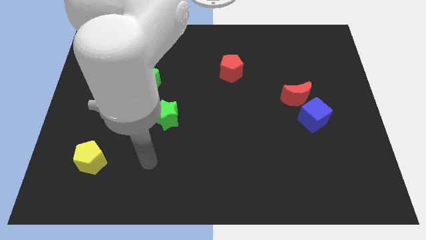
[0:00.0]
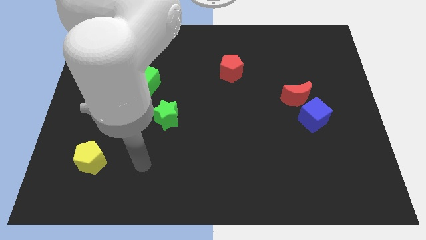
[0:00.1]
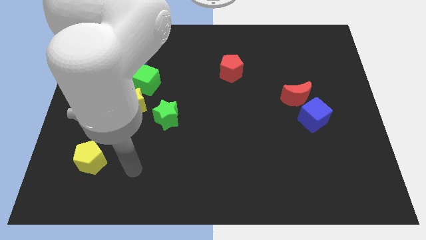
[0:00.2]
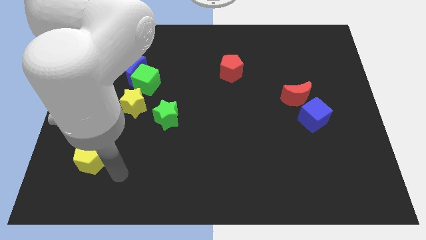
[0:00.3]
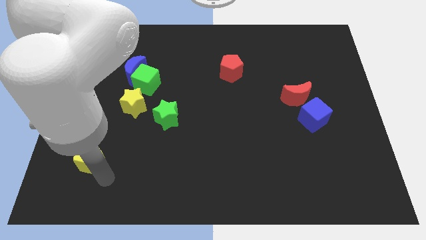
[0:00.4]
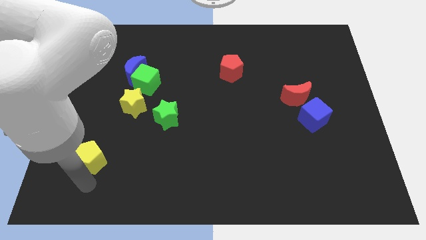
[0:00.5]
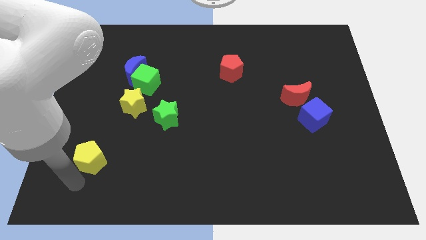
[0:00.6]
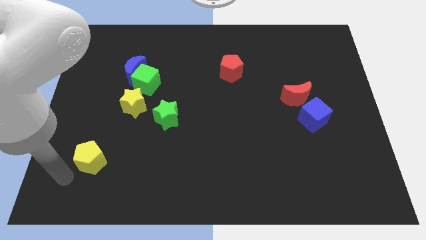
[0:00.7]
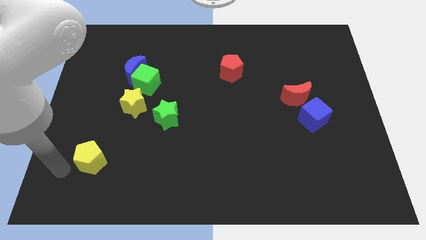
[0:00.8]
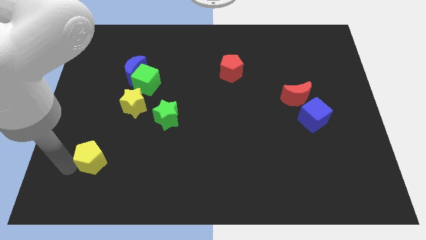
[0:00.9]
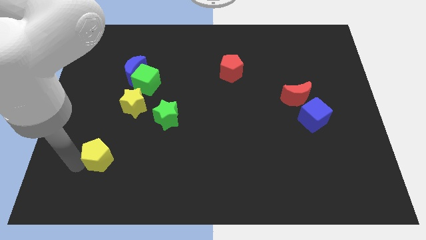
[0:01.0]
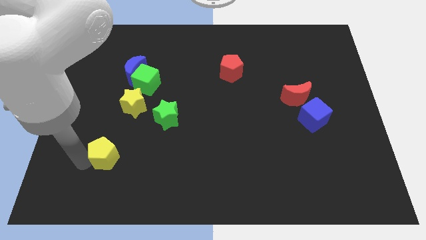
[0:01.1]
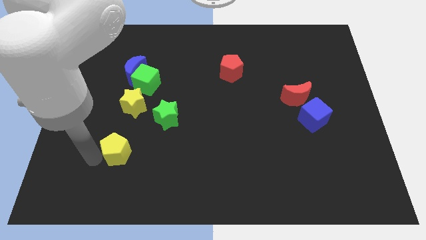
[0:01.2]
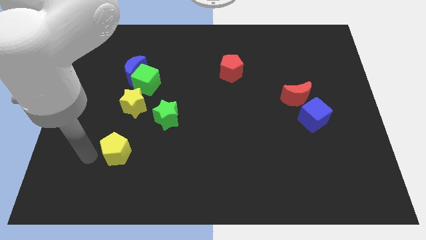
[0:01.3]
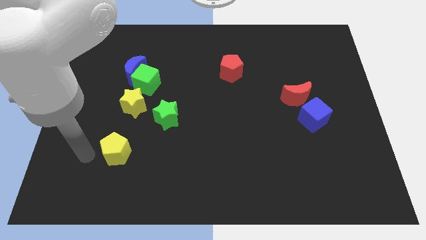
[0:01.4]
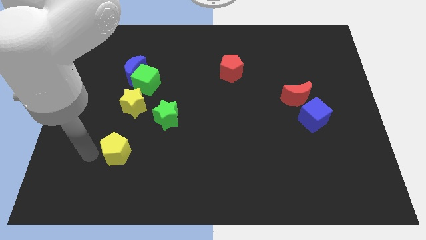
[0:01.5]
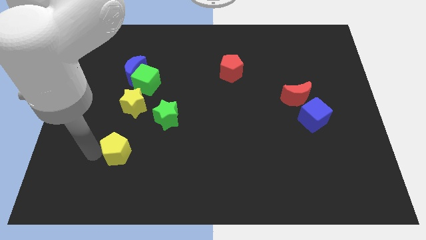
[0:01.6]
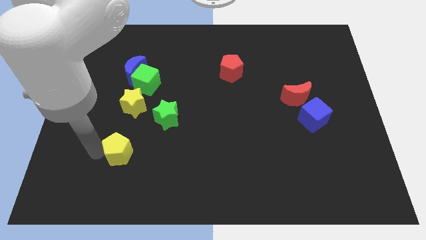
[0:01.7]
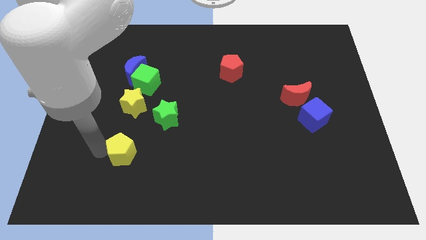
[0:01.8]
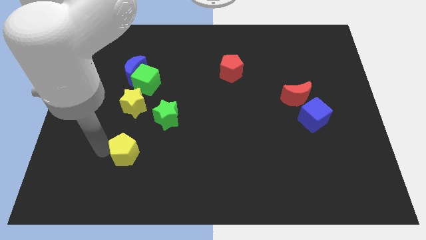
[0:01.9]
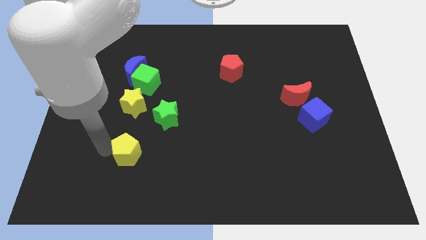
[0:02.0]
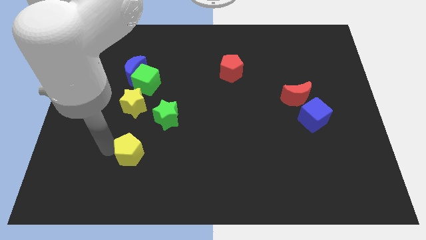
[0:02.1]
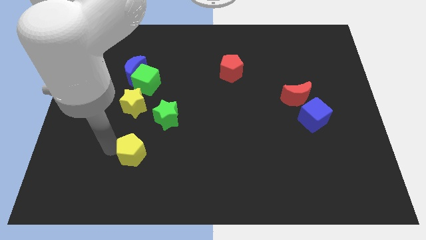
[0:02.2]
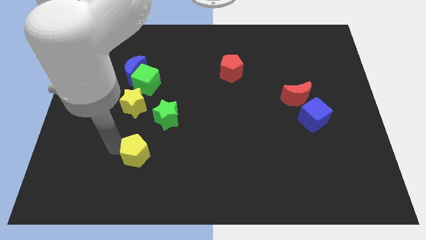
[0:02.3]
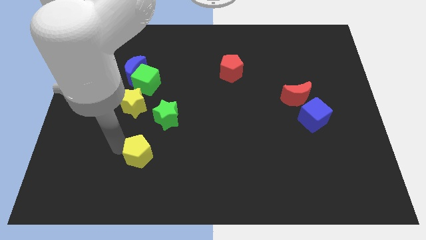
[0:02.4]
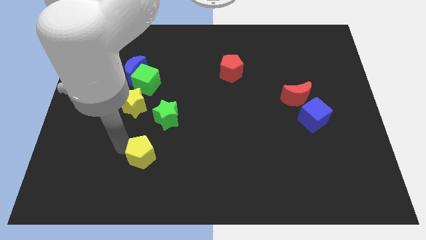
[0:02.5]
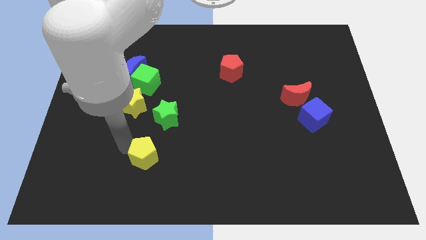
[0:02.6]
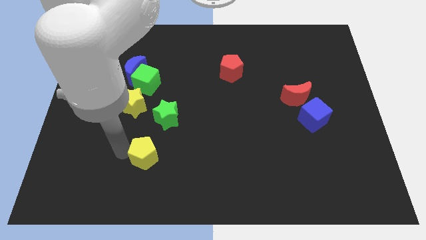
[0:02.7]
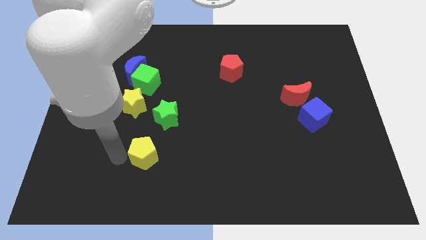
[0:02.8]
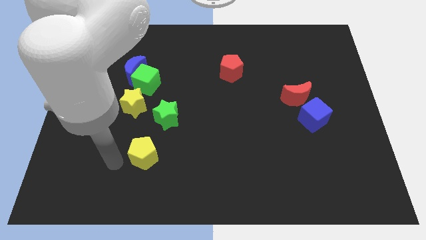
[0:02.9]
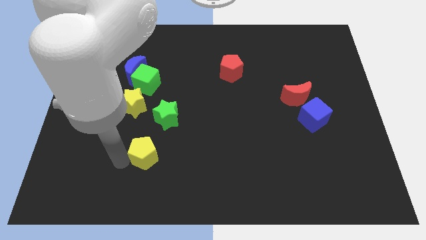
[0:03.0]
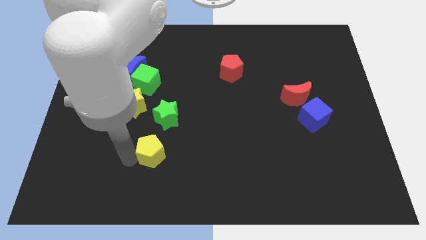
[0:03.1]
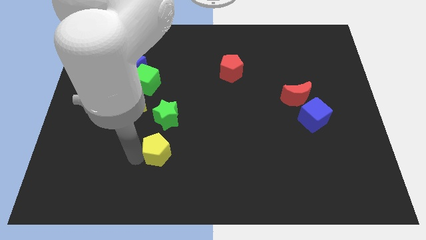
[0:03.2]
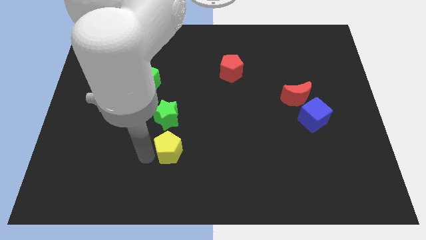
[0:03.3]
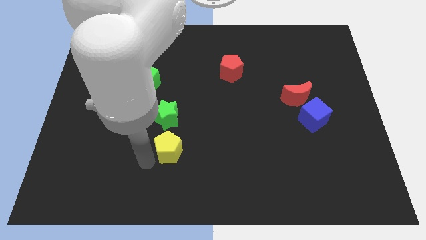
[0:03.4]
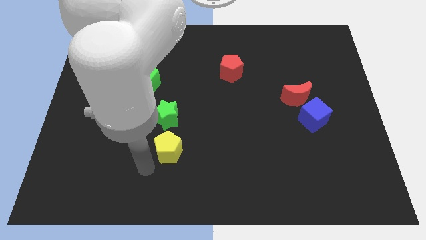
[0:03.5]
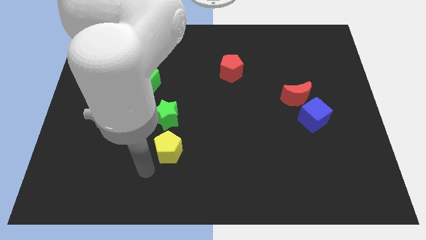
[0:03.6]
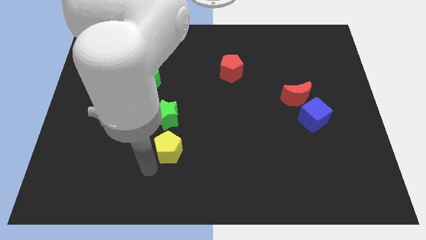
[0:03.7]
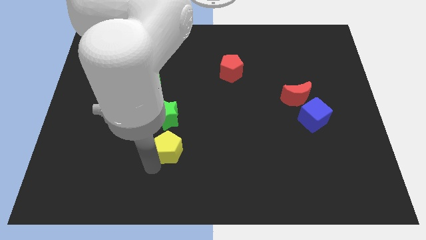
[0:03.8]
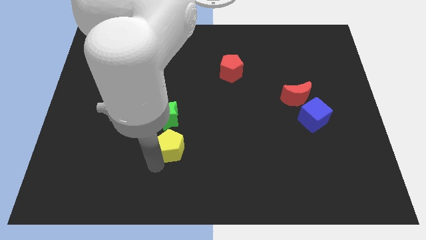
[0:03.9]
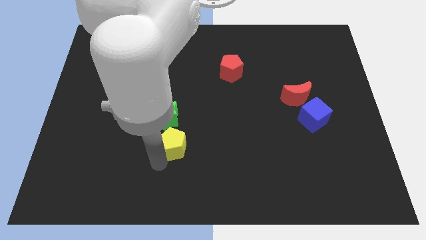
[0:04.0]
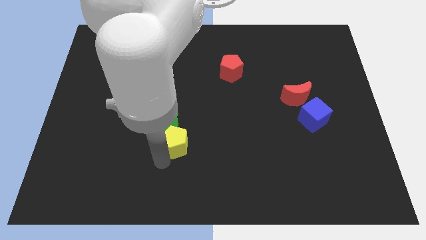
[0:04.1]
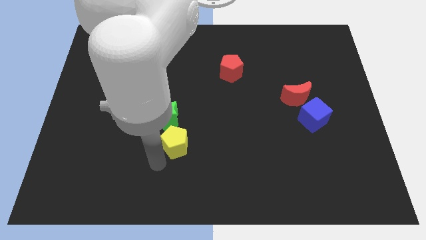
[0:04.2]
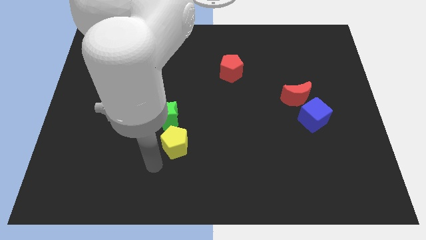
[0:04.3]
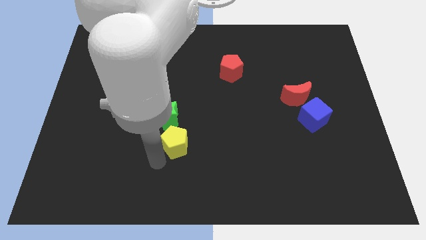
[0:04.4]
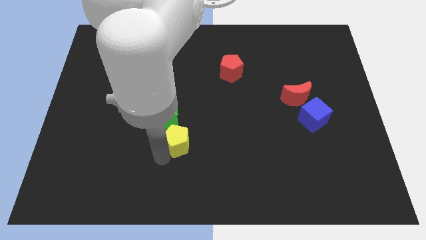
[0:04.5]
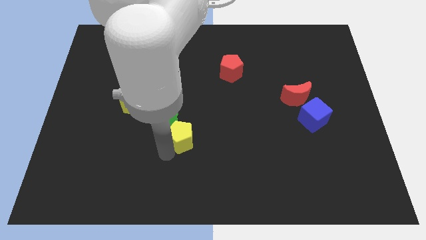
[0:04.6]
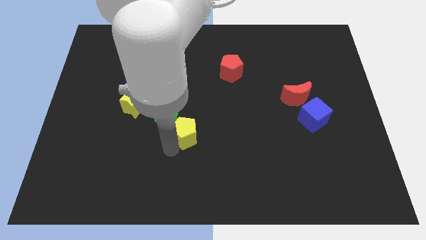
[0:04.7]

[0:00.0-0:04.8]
put the yellow pentagon to the center

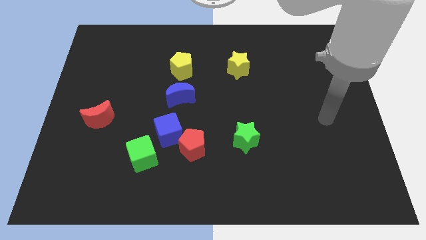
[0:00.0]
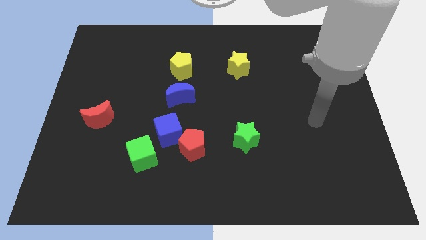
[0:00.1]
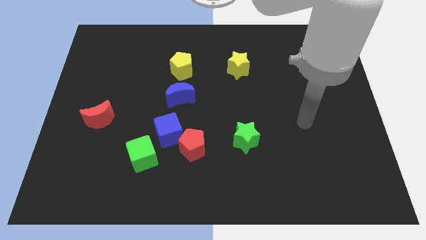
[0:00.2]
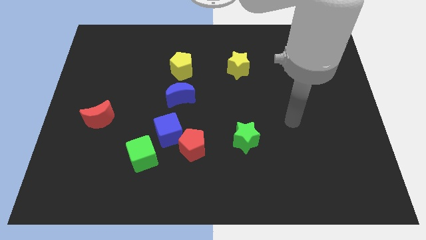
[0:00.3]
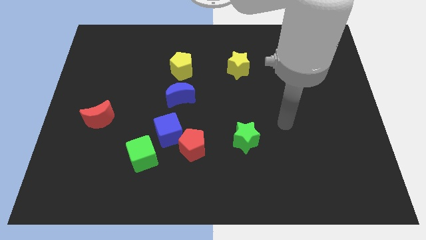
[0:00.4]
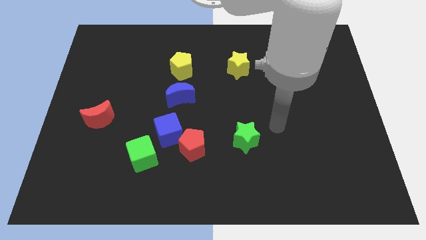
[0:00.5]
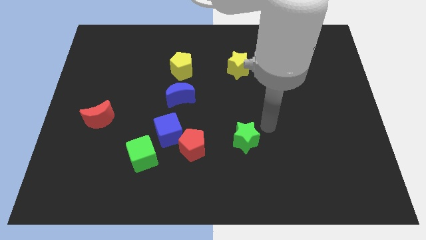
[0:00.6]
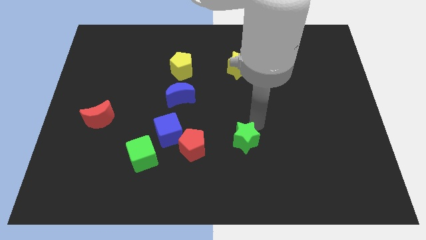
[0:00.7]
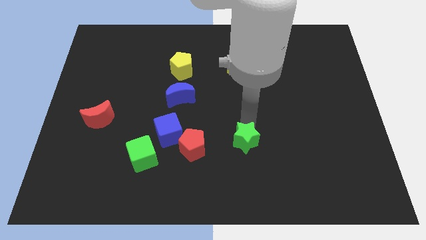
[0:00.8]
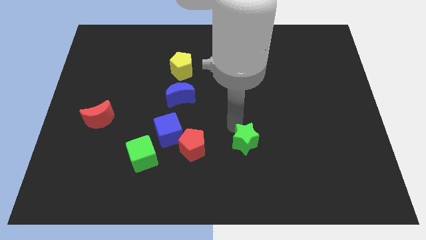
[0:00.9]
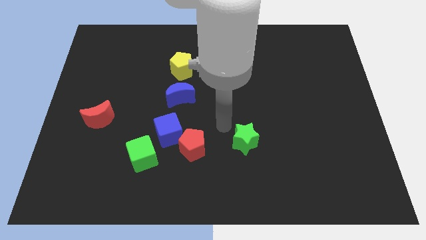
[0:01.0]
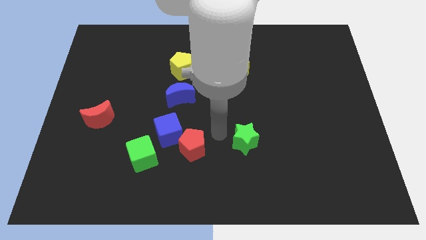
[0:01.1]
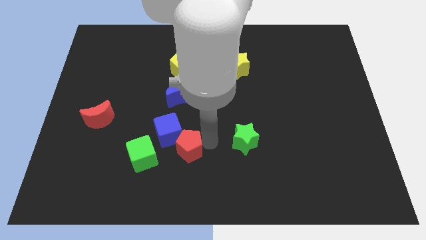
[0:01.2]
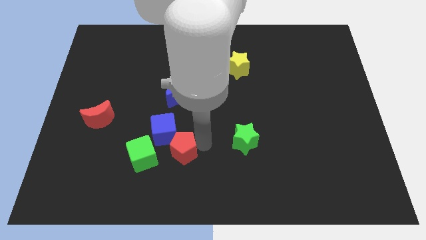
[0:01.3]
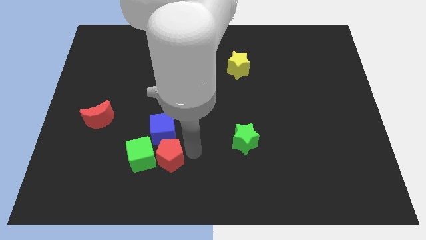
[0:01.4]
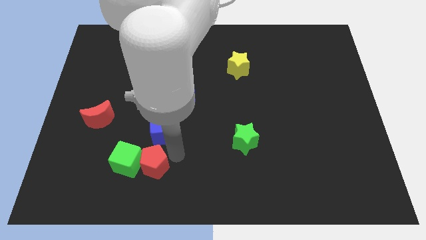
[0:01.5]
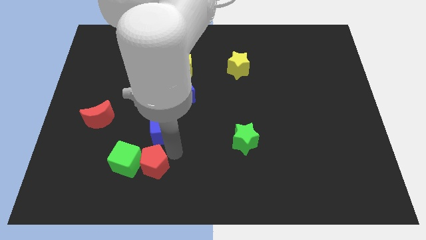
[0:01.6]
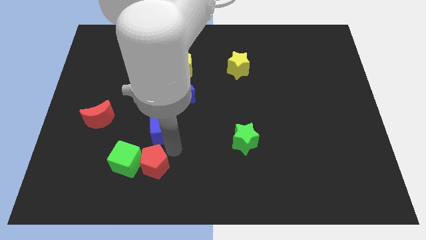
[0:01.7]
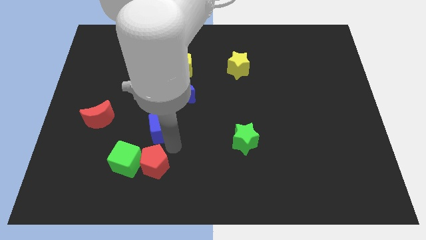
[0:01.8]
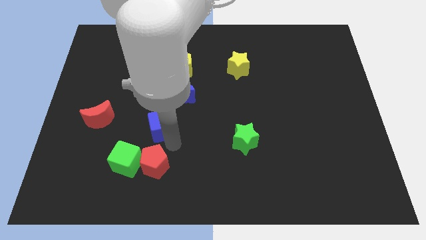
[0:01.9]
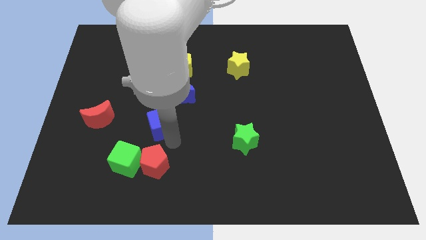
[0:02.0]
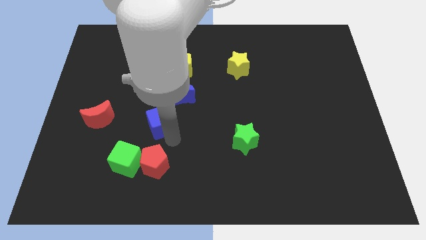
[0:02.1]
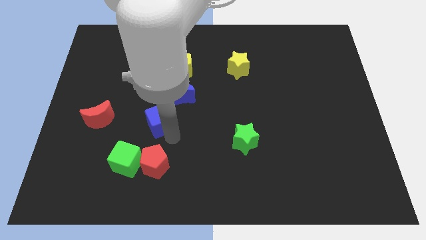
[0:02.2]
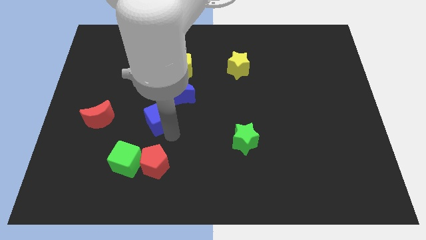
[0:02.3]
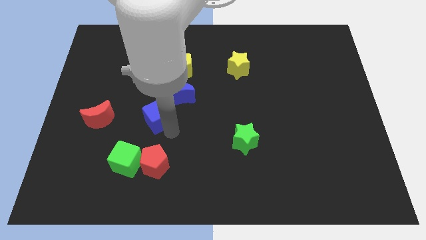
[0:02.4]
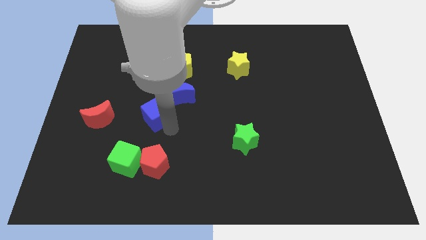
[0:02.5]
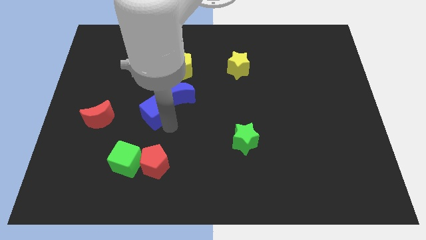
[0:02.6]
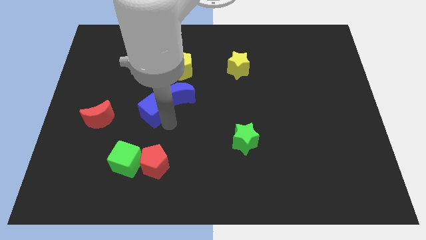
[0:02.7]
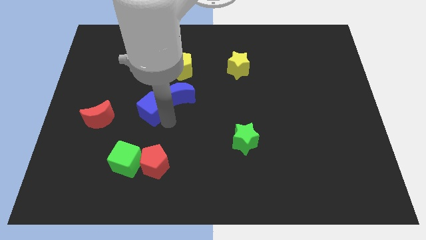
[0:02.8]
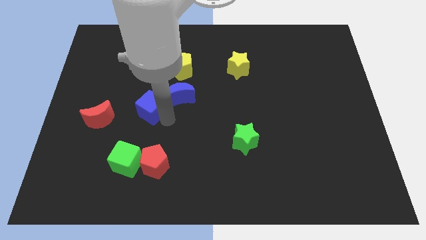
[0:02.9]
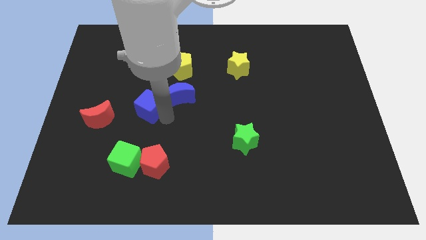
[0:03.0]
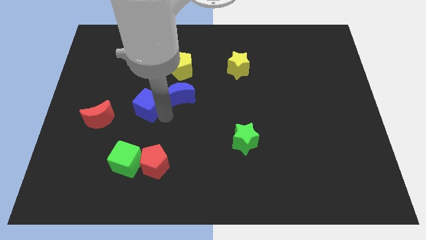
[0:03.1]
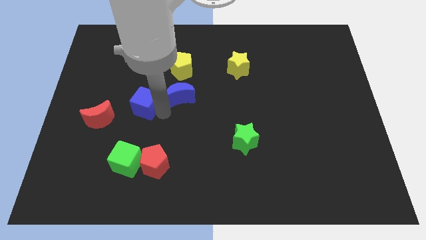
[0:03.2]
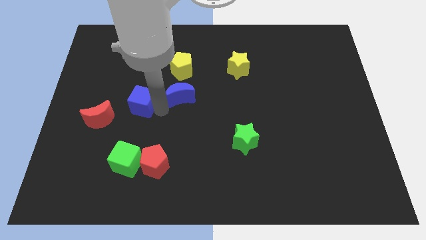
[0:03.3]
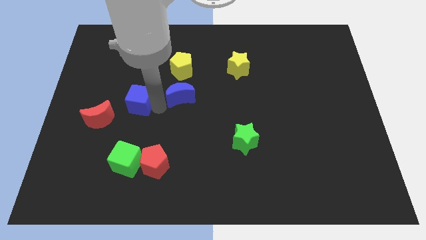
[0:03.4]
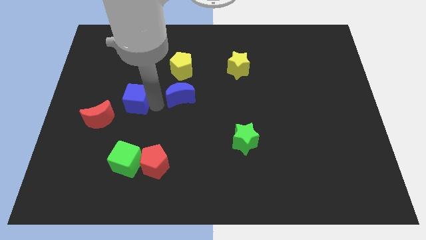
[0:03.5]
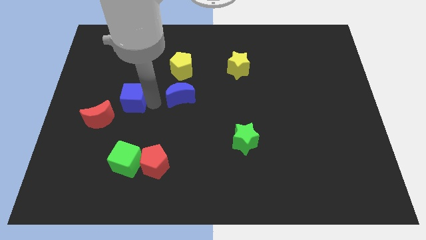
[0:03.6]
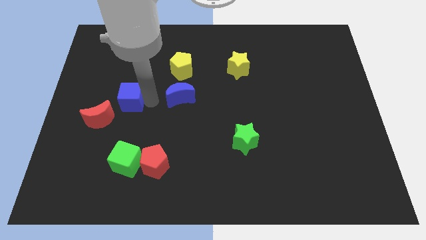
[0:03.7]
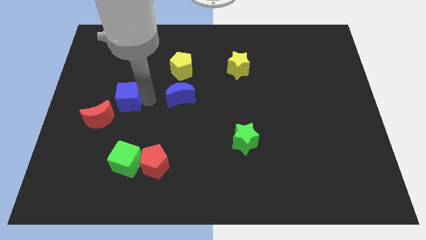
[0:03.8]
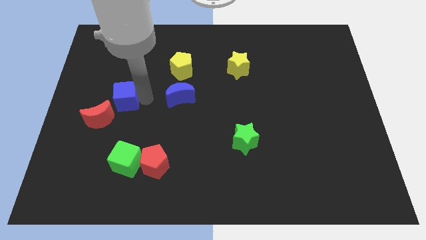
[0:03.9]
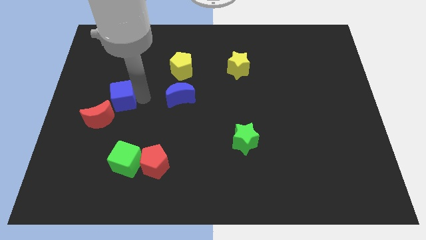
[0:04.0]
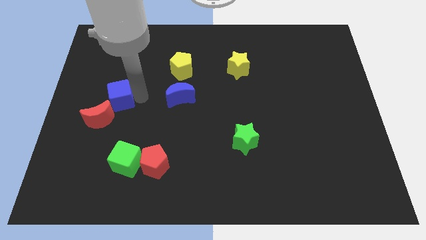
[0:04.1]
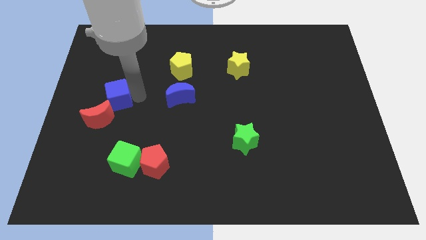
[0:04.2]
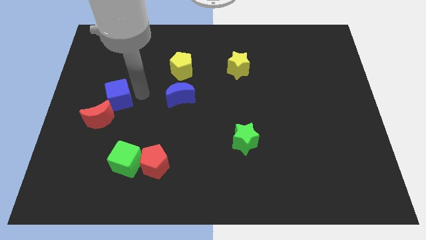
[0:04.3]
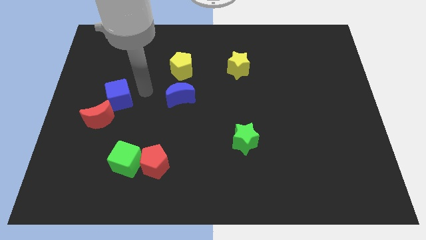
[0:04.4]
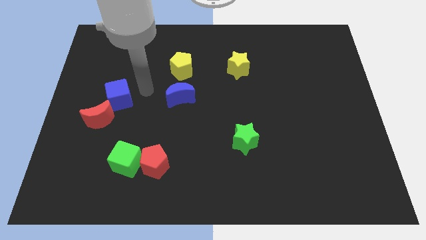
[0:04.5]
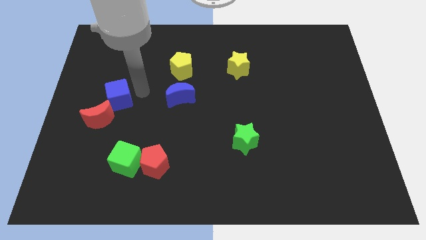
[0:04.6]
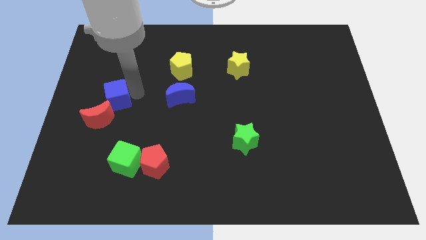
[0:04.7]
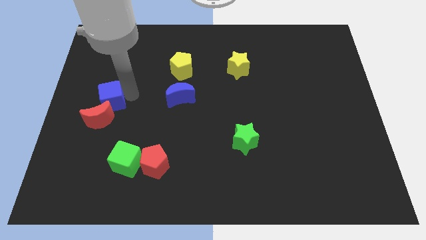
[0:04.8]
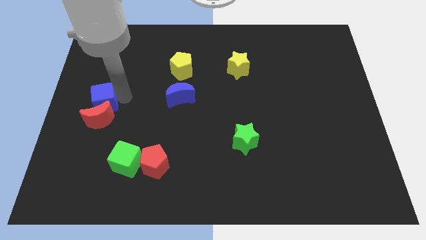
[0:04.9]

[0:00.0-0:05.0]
slide the blue cube to the left side of the board
